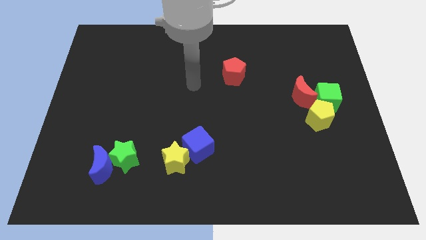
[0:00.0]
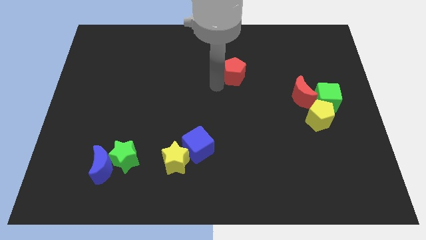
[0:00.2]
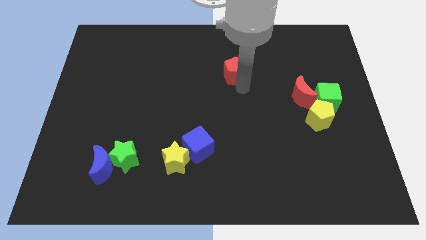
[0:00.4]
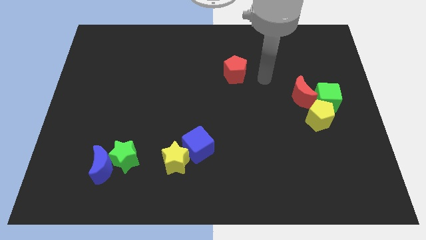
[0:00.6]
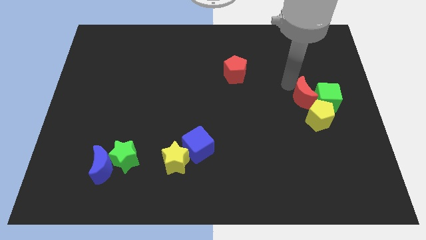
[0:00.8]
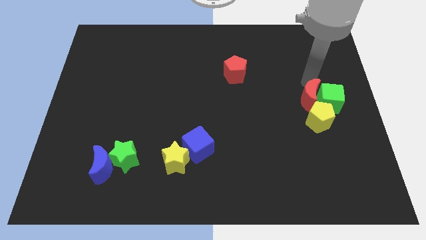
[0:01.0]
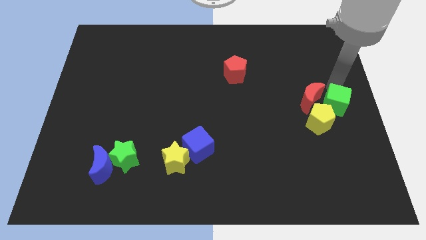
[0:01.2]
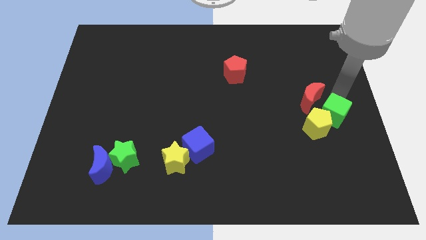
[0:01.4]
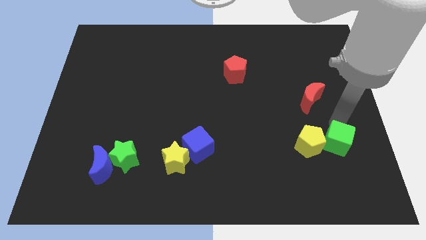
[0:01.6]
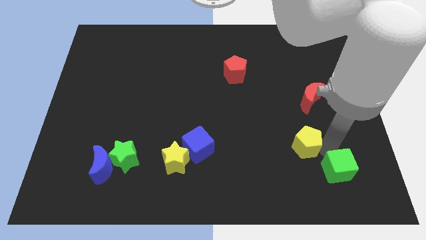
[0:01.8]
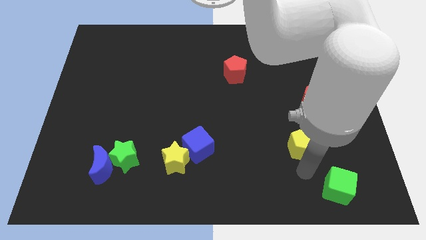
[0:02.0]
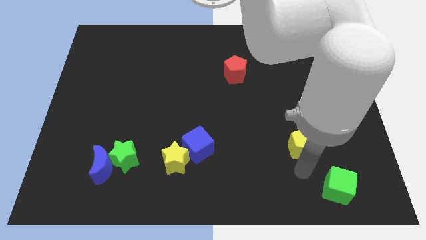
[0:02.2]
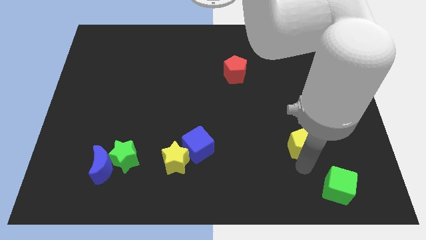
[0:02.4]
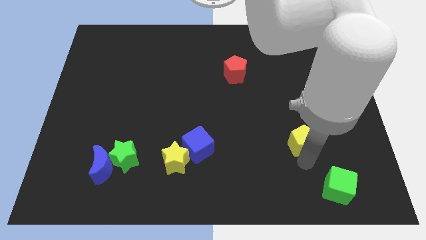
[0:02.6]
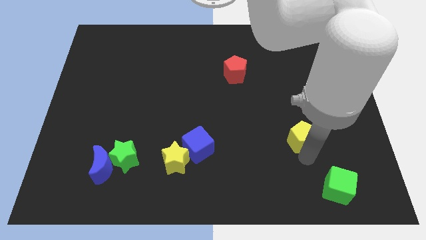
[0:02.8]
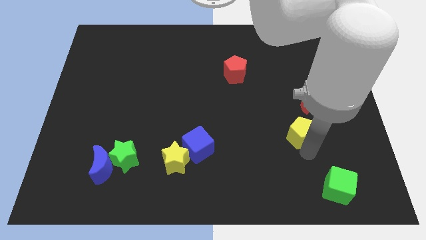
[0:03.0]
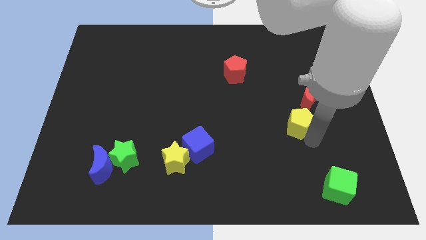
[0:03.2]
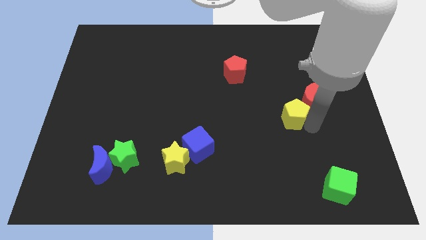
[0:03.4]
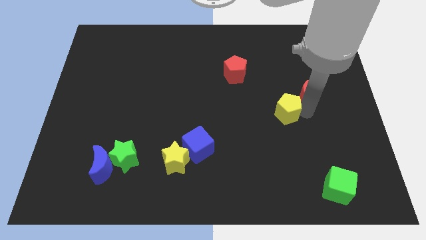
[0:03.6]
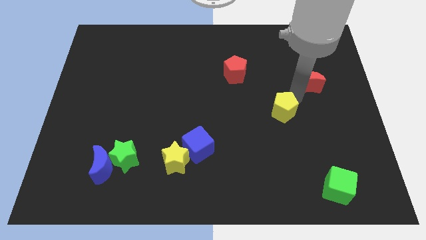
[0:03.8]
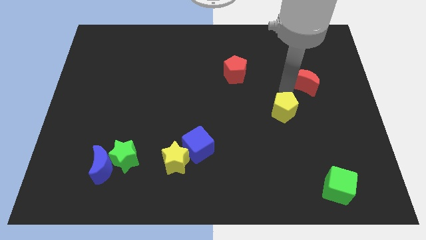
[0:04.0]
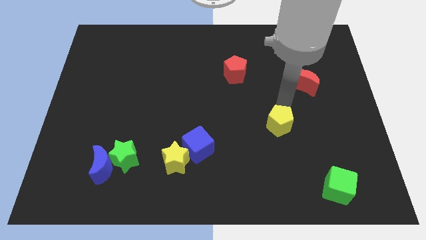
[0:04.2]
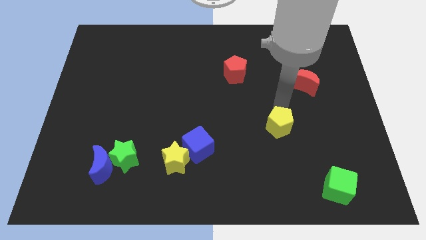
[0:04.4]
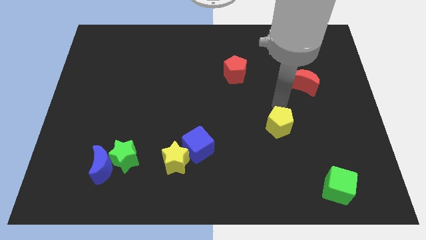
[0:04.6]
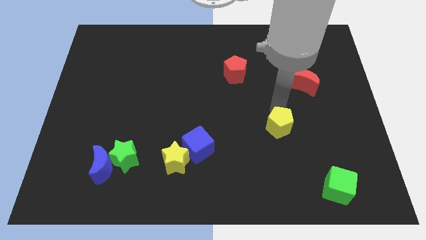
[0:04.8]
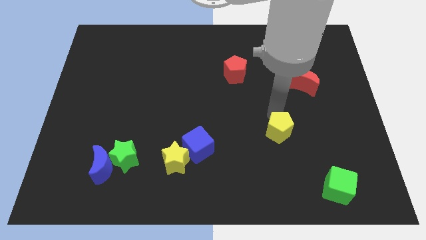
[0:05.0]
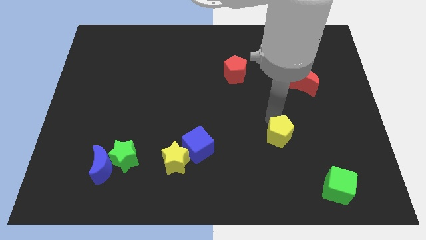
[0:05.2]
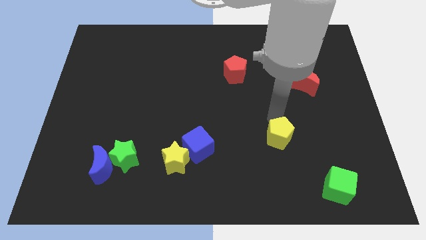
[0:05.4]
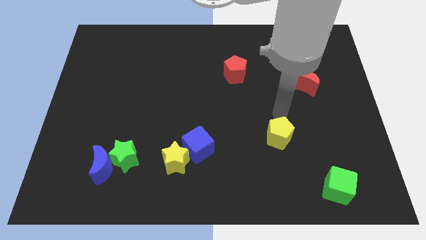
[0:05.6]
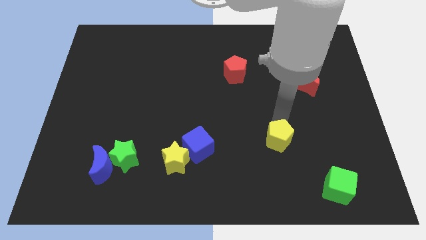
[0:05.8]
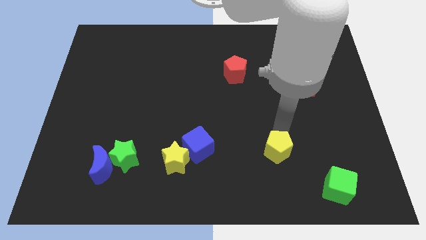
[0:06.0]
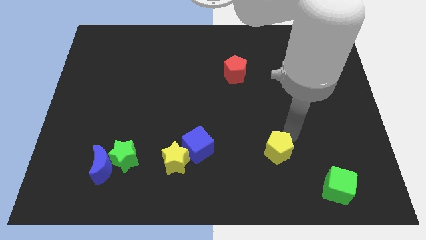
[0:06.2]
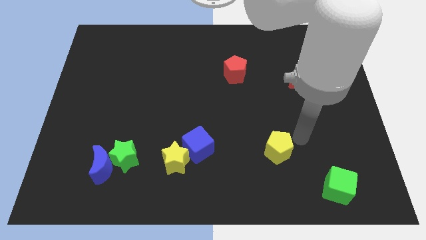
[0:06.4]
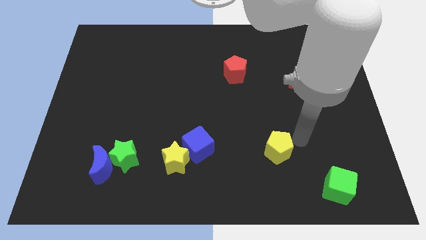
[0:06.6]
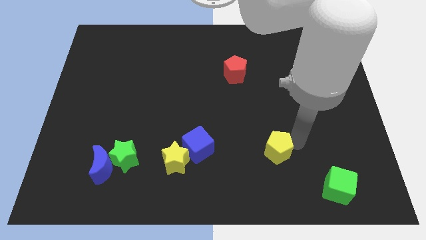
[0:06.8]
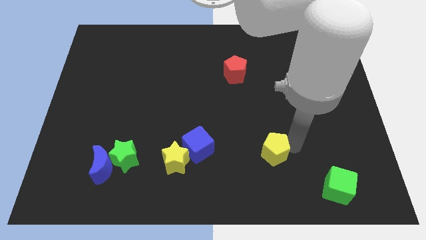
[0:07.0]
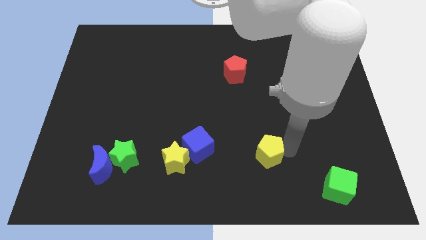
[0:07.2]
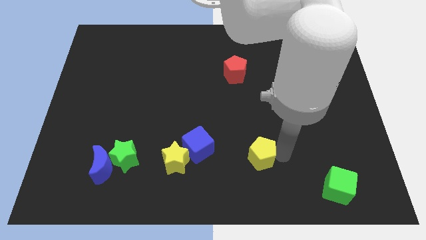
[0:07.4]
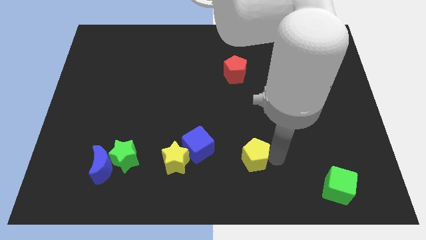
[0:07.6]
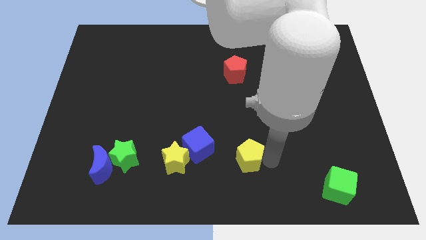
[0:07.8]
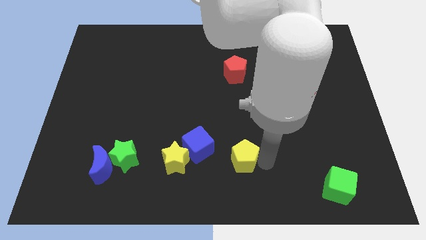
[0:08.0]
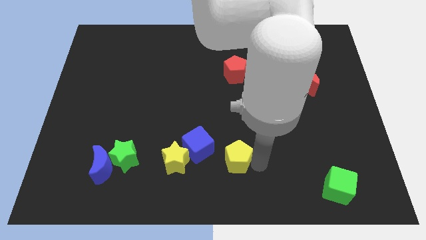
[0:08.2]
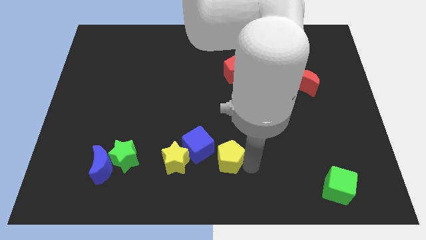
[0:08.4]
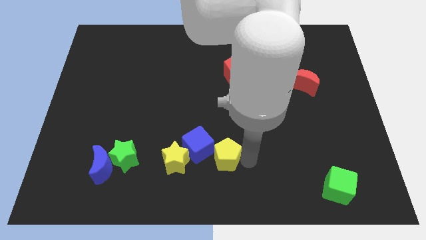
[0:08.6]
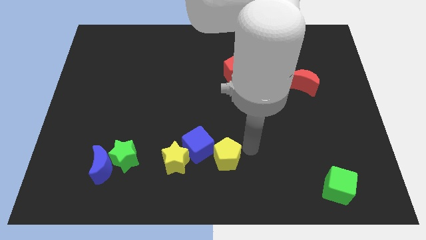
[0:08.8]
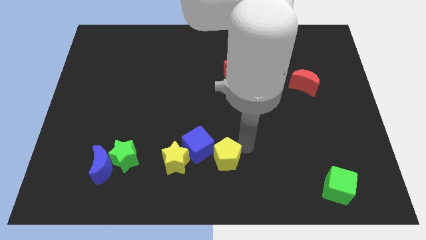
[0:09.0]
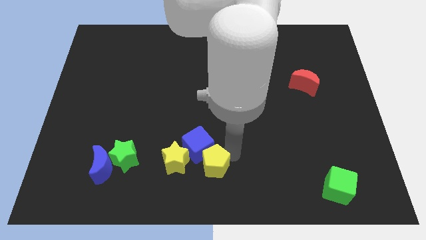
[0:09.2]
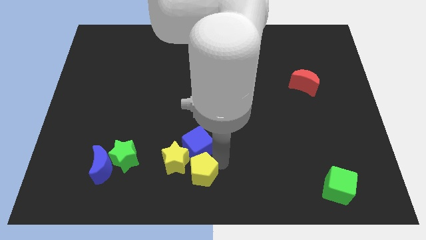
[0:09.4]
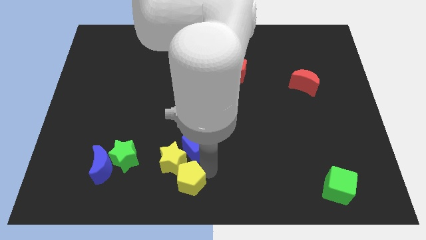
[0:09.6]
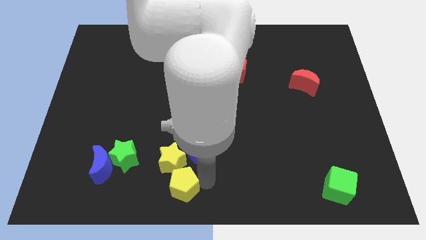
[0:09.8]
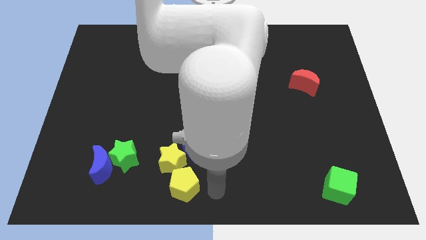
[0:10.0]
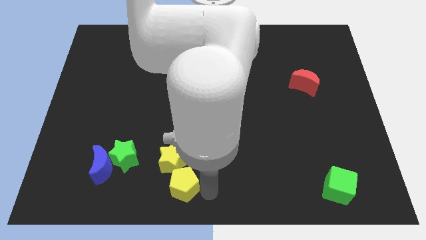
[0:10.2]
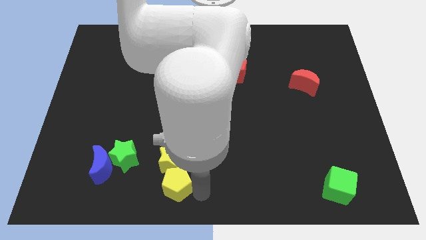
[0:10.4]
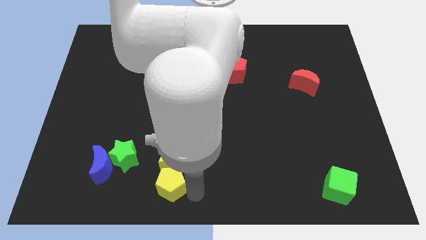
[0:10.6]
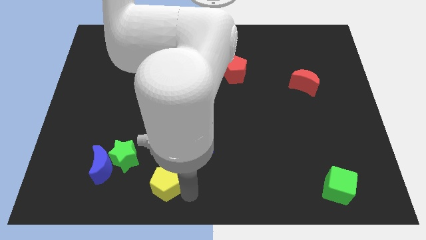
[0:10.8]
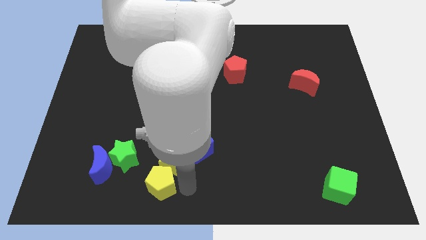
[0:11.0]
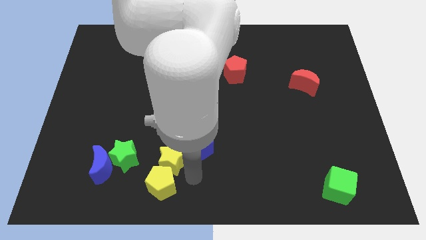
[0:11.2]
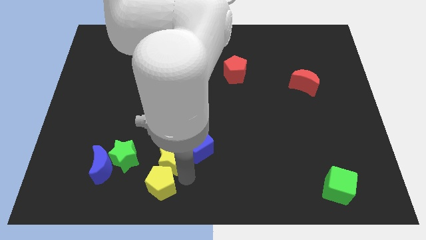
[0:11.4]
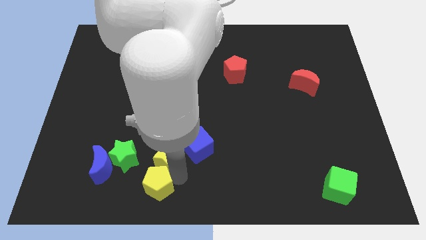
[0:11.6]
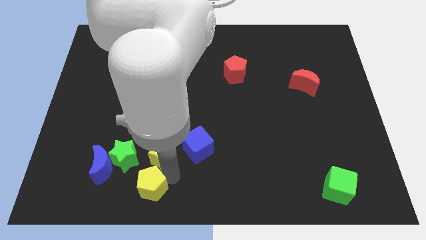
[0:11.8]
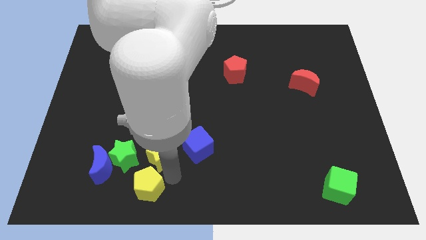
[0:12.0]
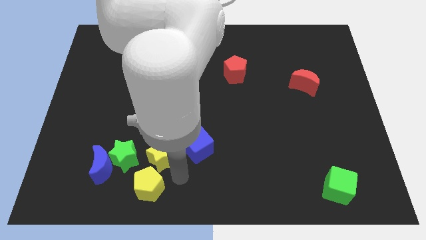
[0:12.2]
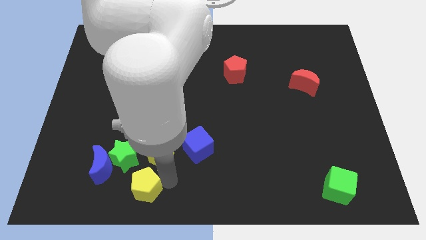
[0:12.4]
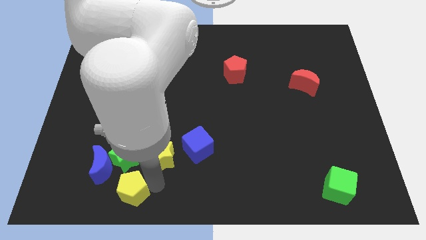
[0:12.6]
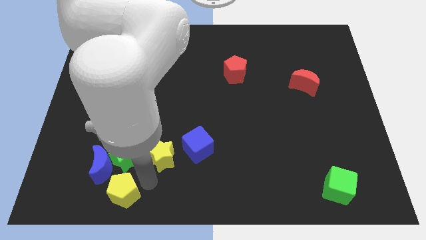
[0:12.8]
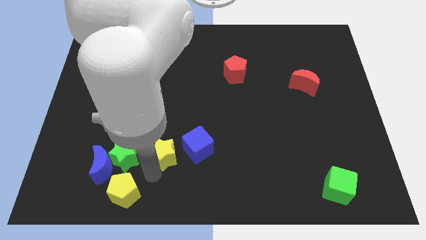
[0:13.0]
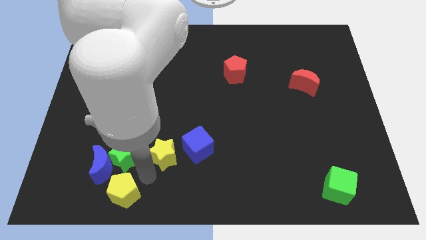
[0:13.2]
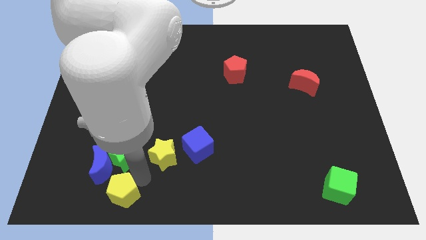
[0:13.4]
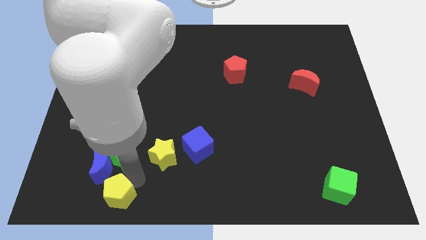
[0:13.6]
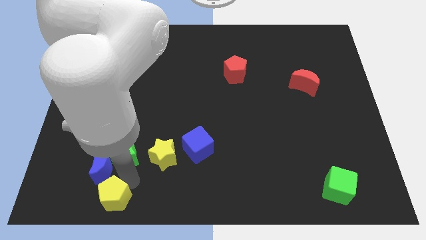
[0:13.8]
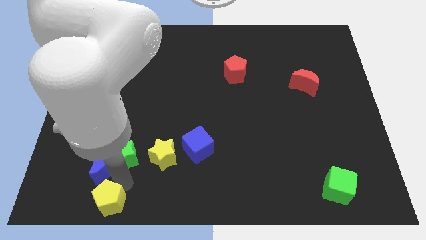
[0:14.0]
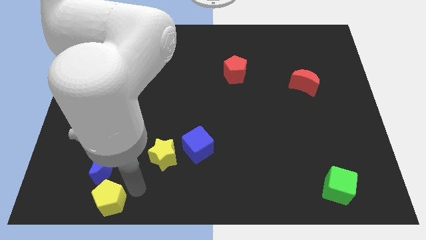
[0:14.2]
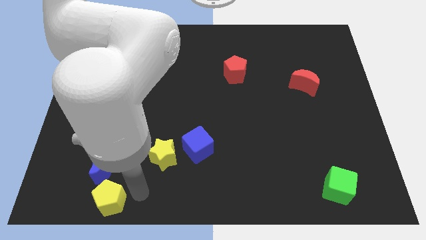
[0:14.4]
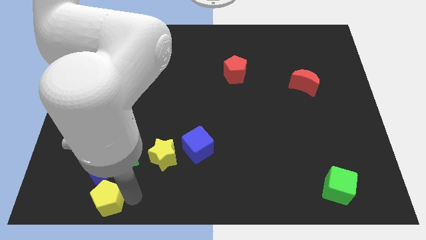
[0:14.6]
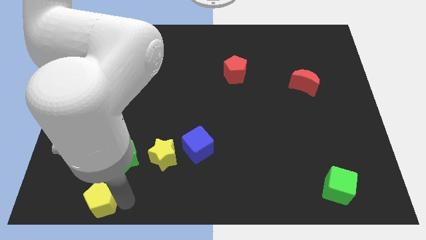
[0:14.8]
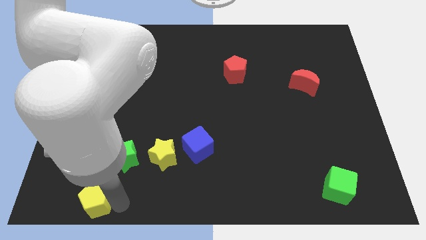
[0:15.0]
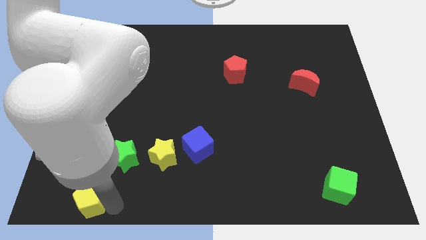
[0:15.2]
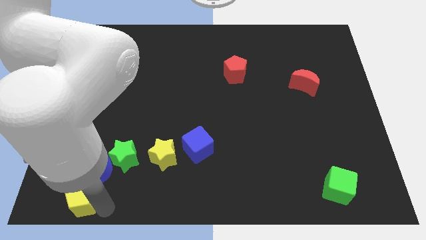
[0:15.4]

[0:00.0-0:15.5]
put the yellow pentagon to the bottom left of the board
